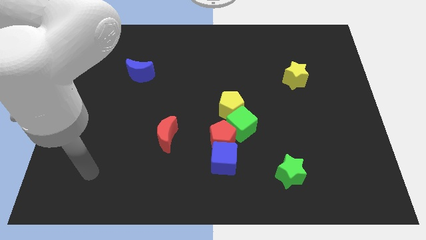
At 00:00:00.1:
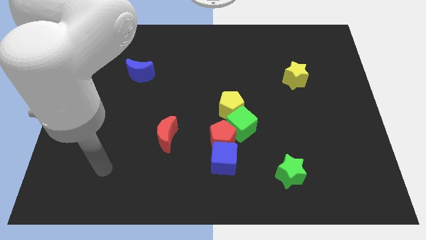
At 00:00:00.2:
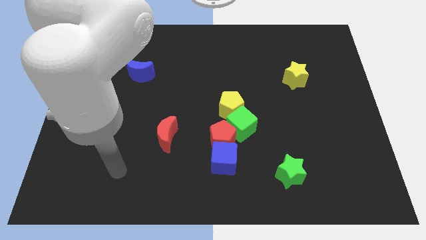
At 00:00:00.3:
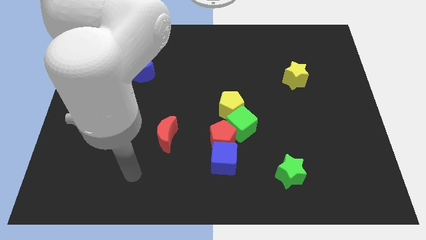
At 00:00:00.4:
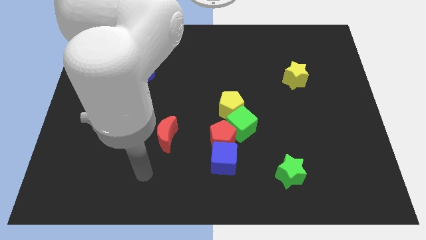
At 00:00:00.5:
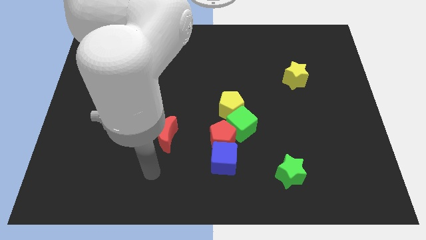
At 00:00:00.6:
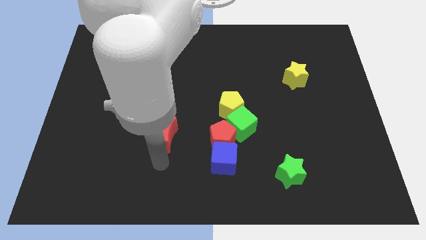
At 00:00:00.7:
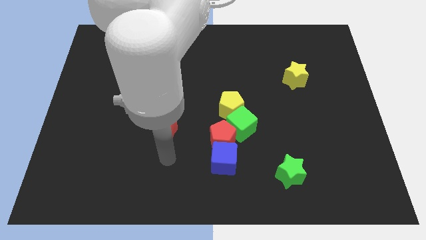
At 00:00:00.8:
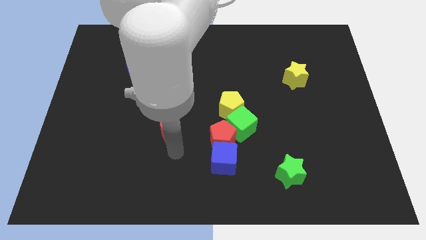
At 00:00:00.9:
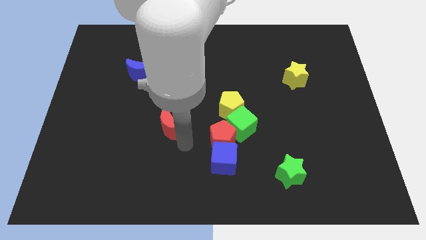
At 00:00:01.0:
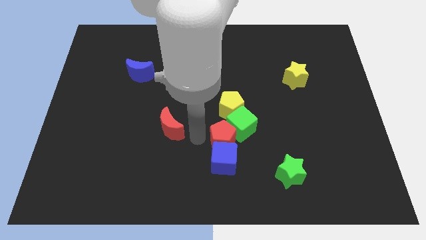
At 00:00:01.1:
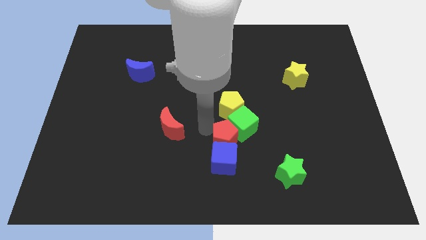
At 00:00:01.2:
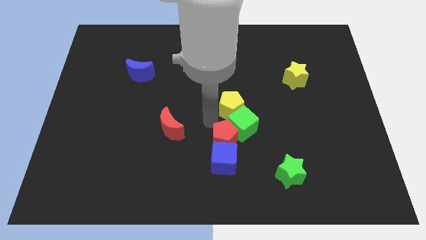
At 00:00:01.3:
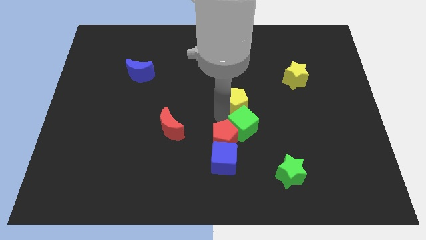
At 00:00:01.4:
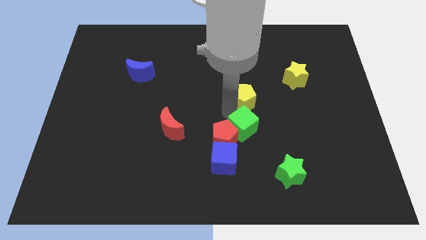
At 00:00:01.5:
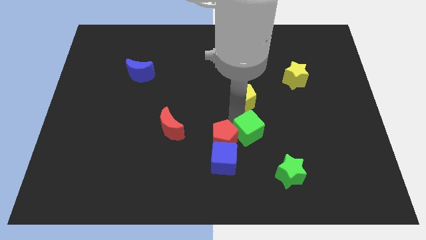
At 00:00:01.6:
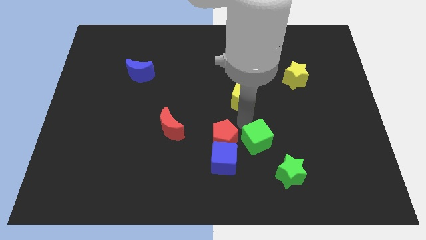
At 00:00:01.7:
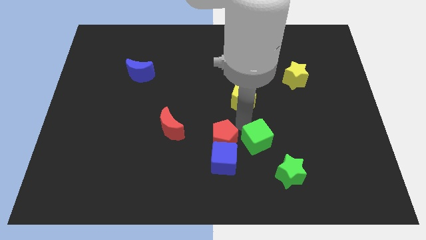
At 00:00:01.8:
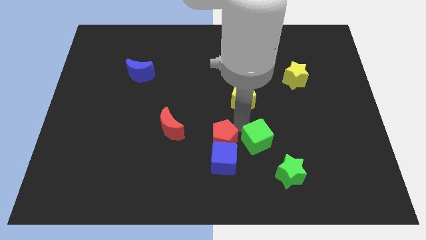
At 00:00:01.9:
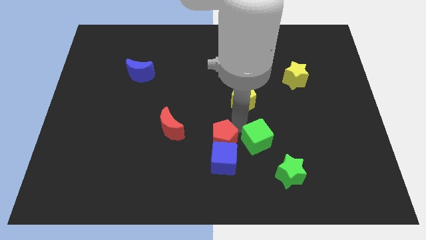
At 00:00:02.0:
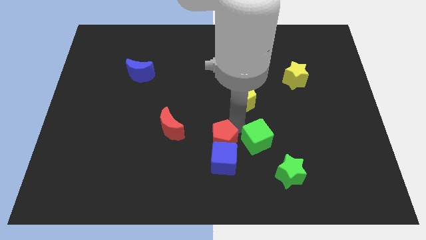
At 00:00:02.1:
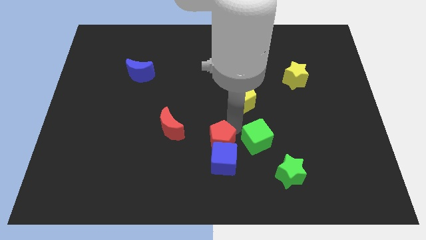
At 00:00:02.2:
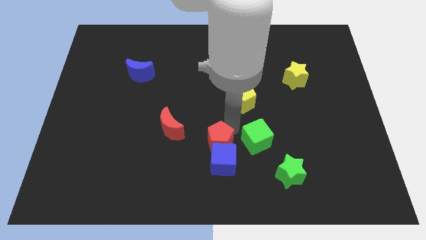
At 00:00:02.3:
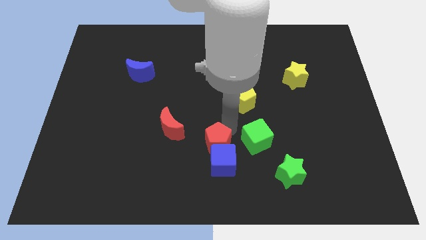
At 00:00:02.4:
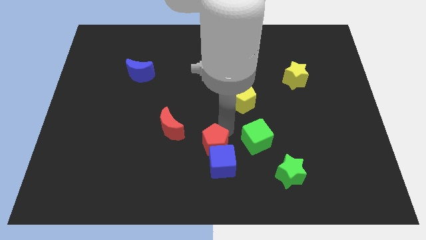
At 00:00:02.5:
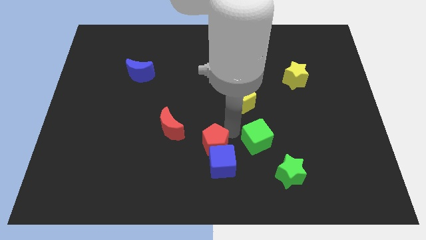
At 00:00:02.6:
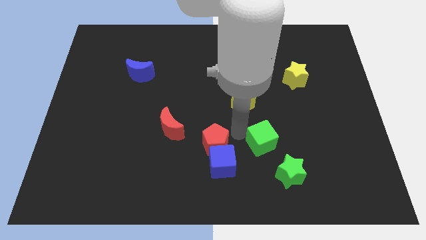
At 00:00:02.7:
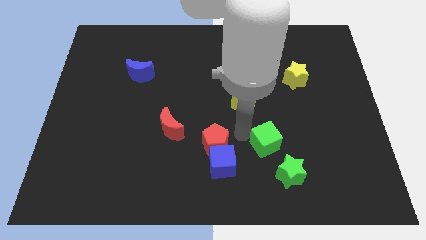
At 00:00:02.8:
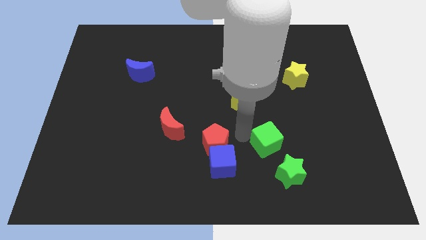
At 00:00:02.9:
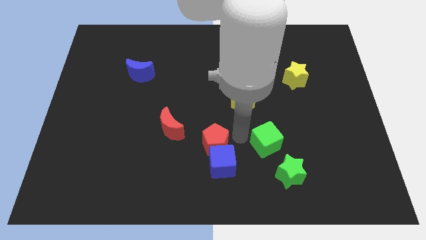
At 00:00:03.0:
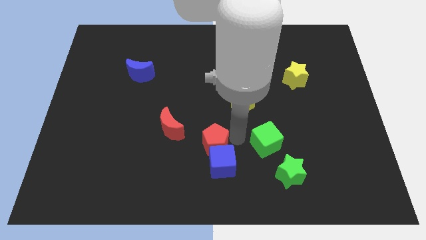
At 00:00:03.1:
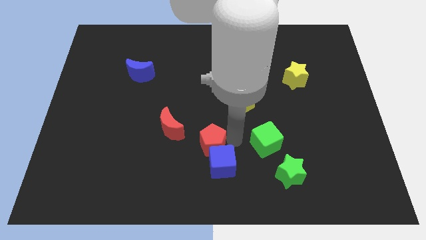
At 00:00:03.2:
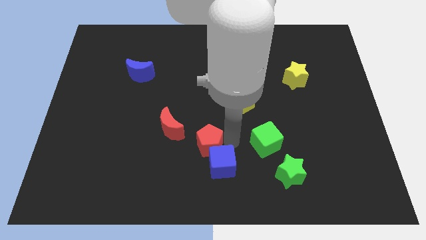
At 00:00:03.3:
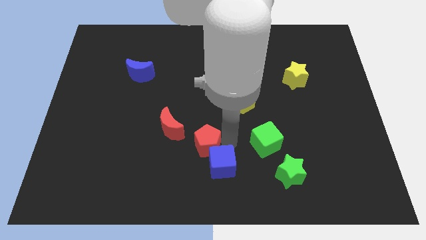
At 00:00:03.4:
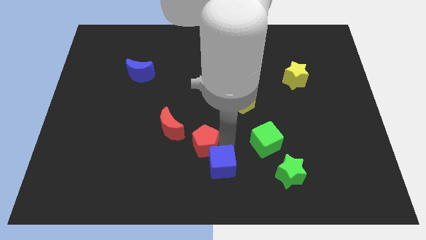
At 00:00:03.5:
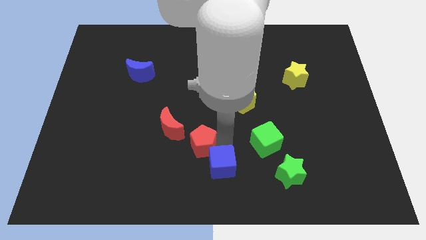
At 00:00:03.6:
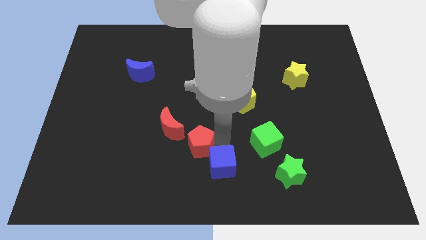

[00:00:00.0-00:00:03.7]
pull the red pentagon apart from the clump

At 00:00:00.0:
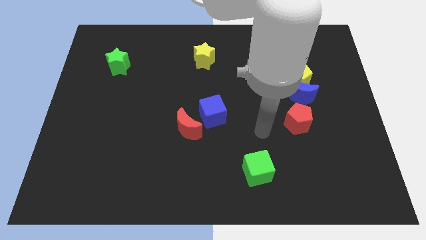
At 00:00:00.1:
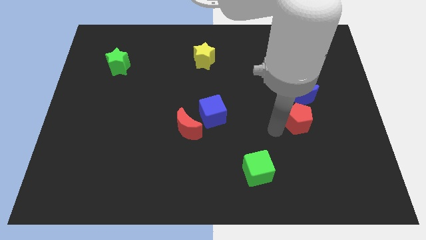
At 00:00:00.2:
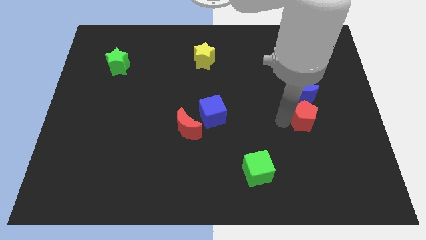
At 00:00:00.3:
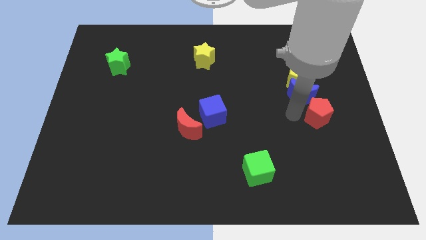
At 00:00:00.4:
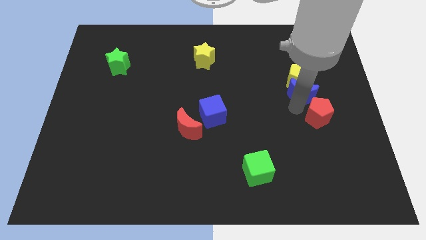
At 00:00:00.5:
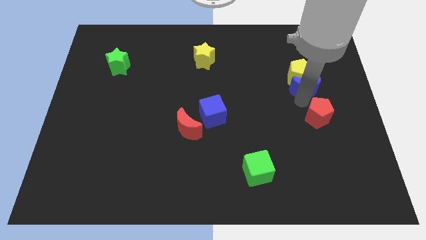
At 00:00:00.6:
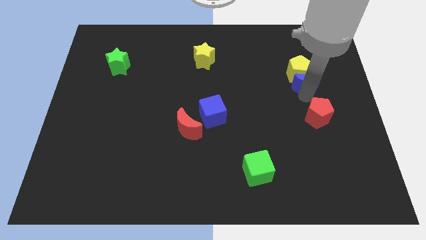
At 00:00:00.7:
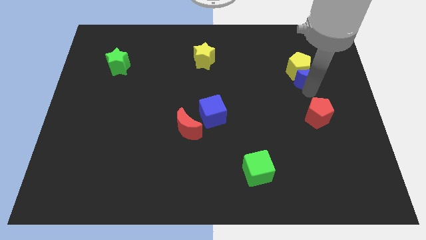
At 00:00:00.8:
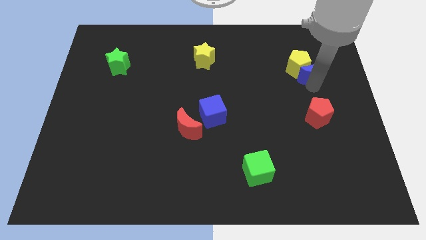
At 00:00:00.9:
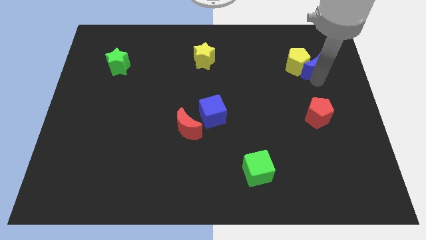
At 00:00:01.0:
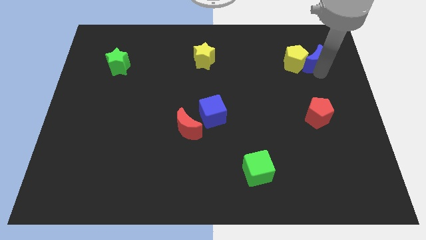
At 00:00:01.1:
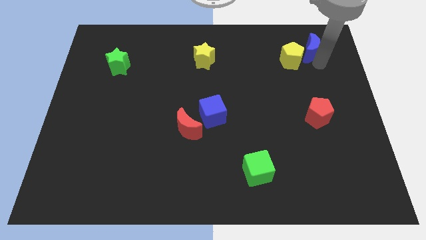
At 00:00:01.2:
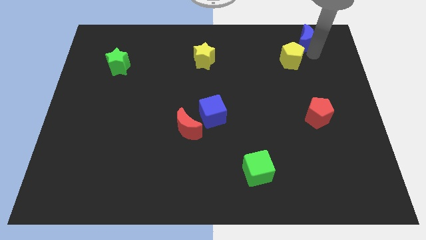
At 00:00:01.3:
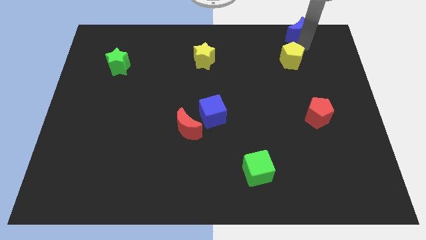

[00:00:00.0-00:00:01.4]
move the yellow pentagon away from the blue moon

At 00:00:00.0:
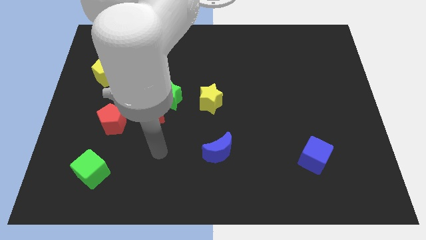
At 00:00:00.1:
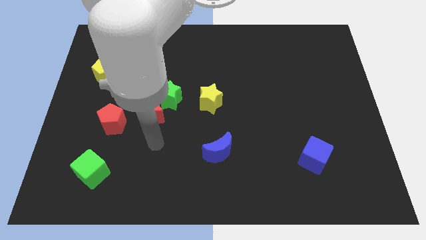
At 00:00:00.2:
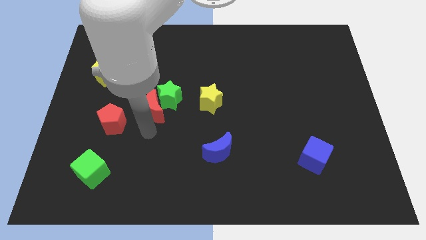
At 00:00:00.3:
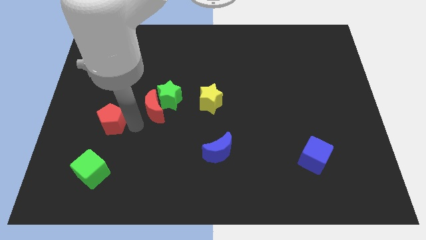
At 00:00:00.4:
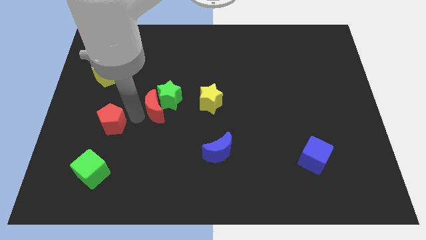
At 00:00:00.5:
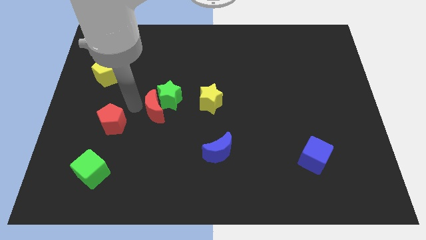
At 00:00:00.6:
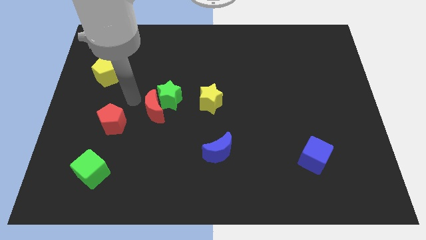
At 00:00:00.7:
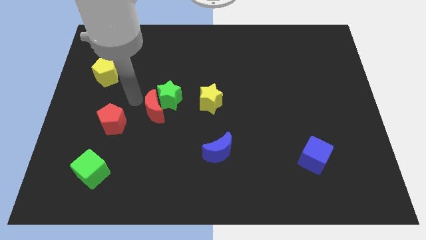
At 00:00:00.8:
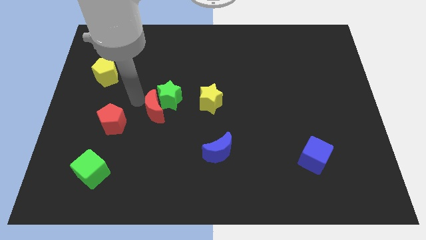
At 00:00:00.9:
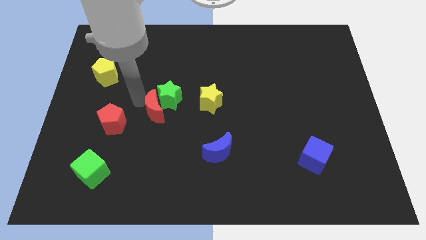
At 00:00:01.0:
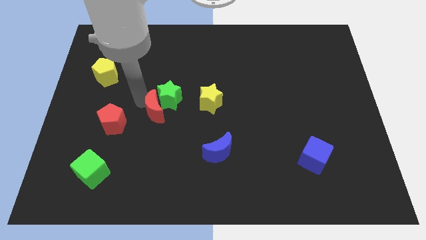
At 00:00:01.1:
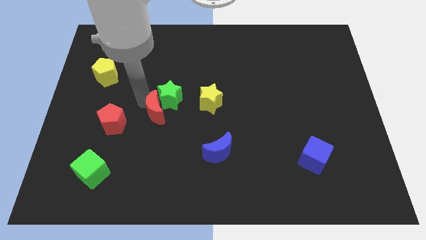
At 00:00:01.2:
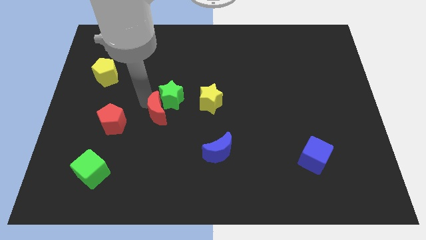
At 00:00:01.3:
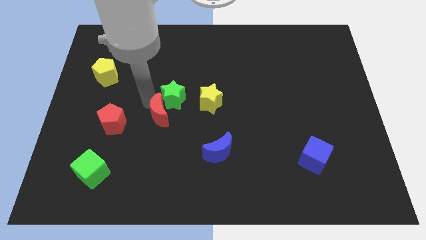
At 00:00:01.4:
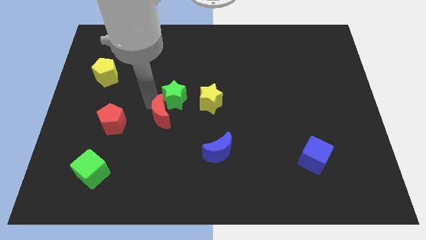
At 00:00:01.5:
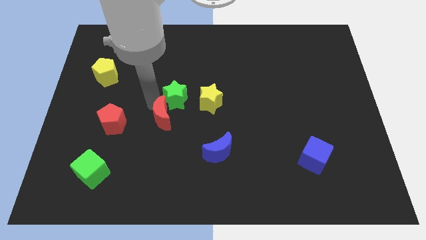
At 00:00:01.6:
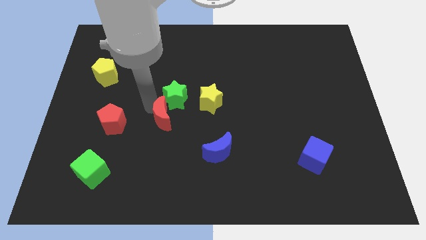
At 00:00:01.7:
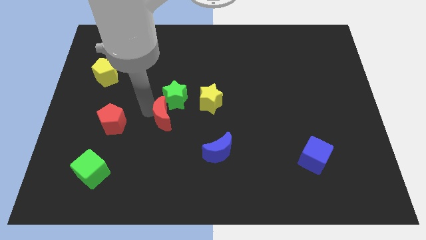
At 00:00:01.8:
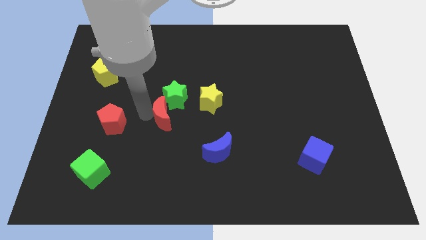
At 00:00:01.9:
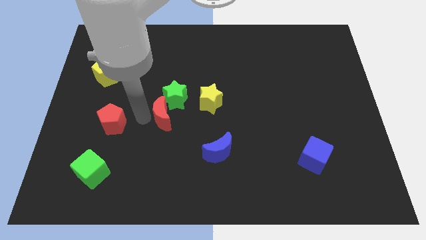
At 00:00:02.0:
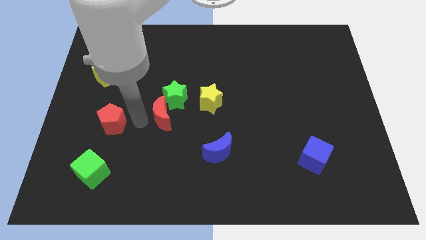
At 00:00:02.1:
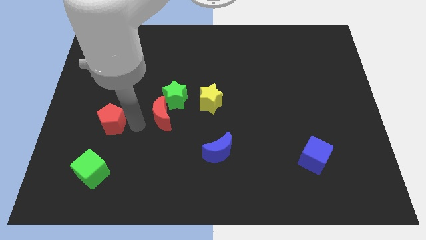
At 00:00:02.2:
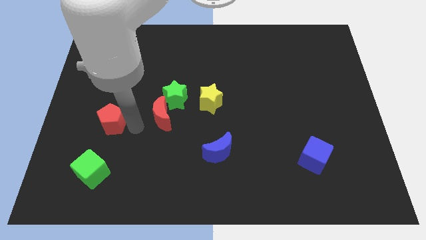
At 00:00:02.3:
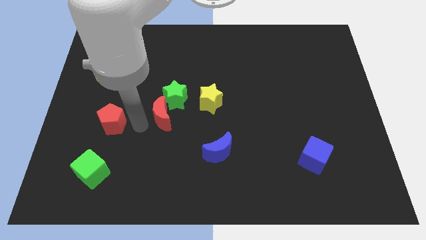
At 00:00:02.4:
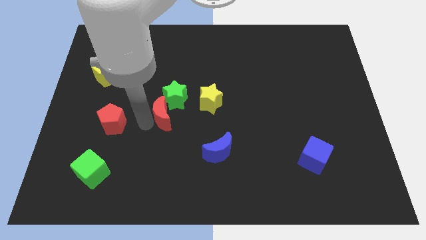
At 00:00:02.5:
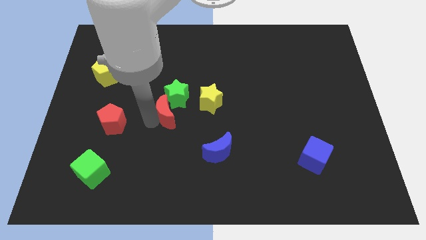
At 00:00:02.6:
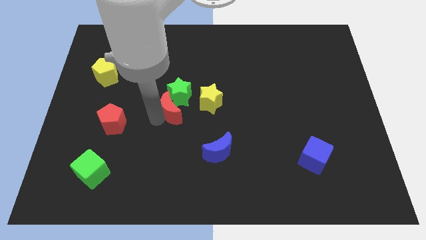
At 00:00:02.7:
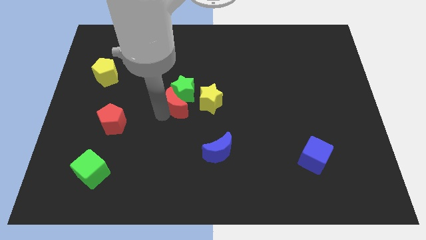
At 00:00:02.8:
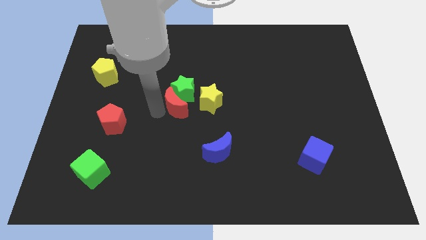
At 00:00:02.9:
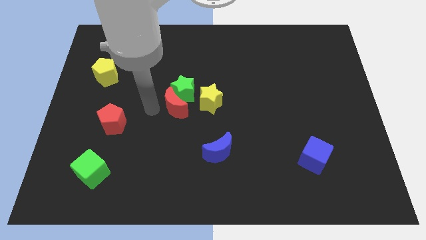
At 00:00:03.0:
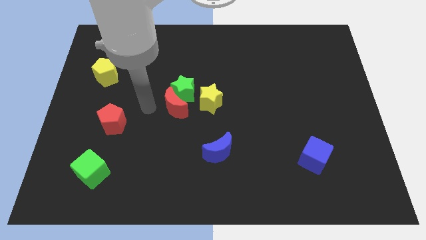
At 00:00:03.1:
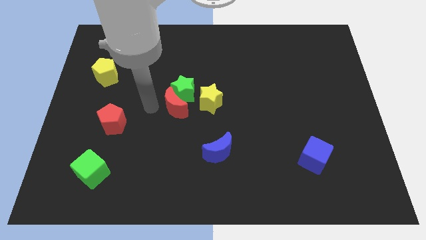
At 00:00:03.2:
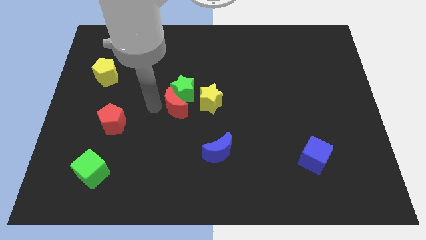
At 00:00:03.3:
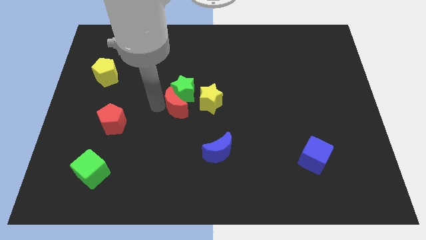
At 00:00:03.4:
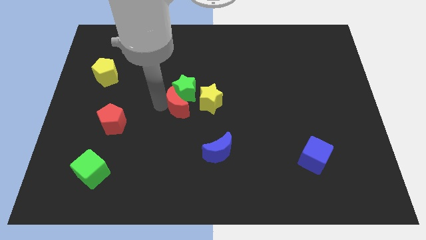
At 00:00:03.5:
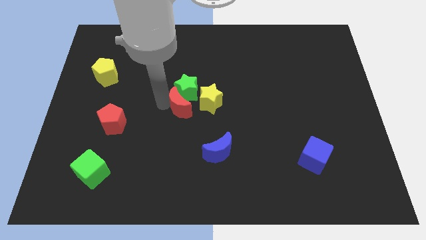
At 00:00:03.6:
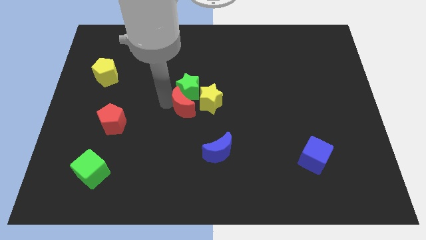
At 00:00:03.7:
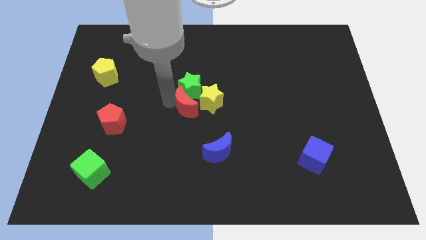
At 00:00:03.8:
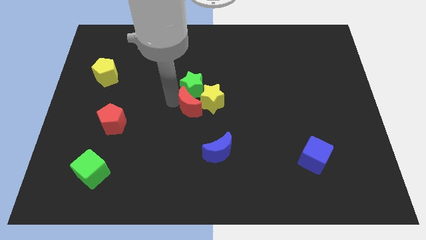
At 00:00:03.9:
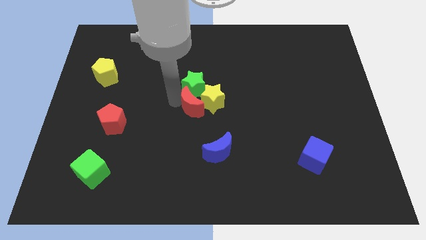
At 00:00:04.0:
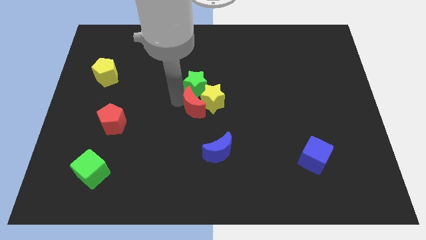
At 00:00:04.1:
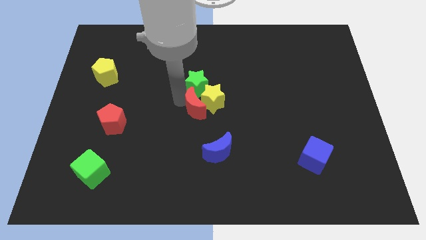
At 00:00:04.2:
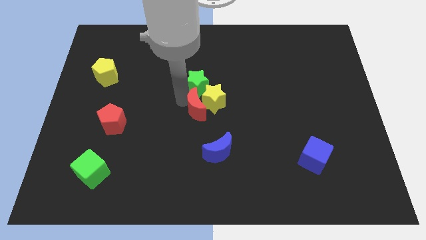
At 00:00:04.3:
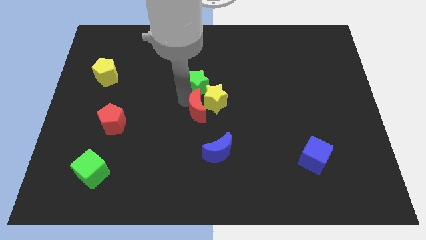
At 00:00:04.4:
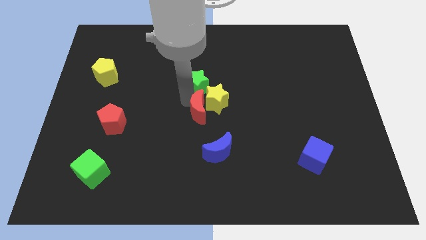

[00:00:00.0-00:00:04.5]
move the red moon away from the green star and red pentagon
